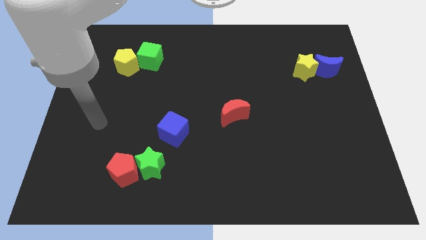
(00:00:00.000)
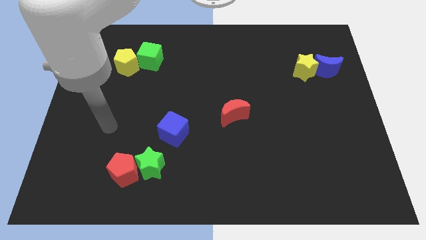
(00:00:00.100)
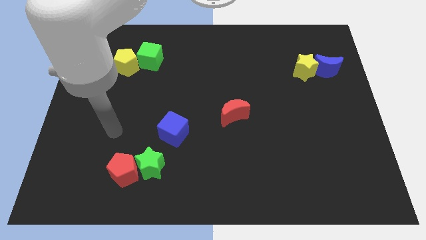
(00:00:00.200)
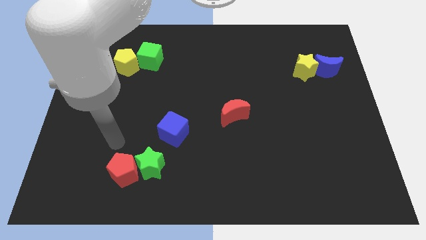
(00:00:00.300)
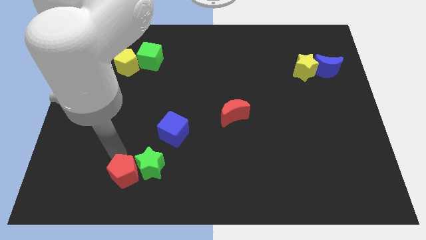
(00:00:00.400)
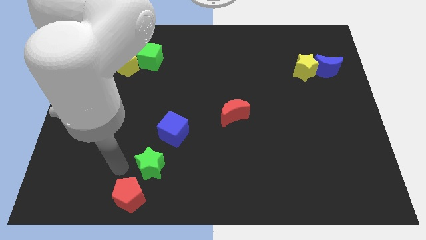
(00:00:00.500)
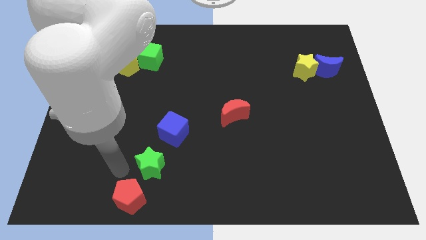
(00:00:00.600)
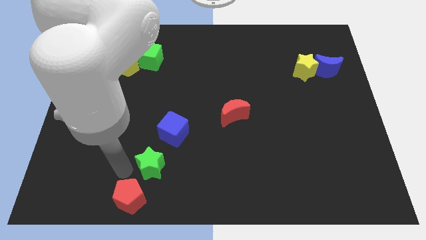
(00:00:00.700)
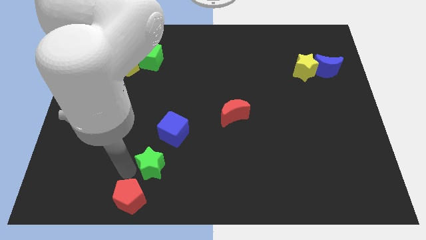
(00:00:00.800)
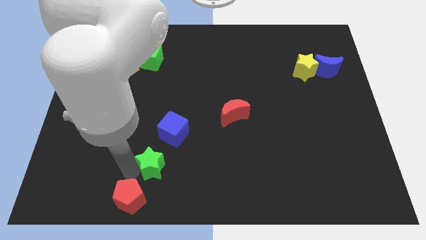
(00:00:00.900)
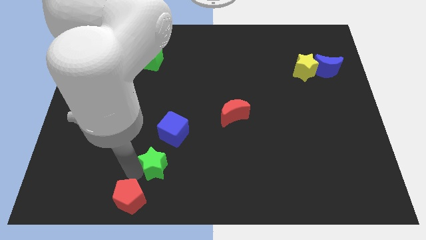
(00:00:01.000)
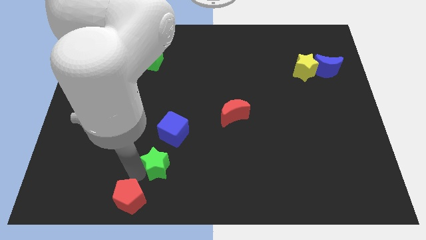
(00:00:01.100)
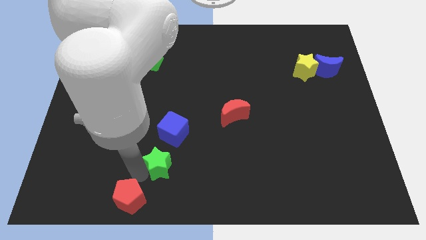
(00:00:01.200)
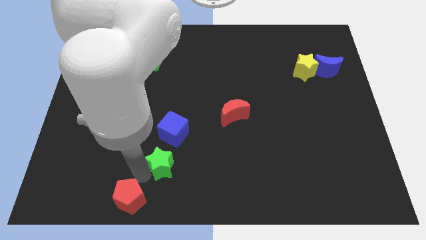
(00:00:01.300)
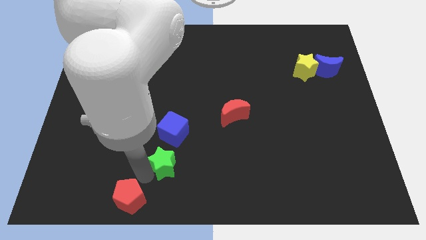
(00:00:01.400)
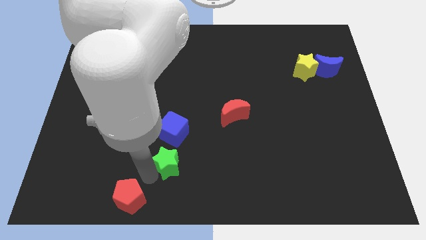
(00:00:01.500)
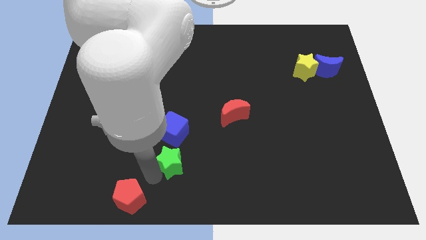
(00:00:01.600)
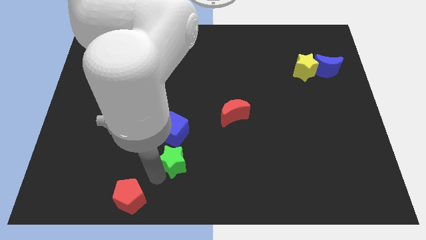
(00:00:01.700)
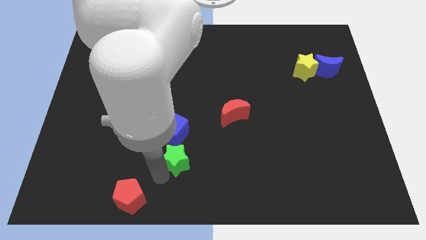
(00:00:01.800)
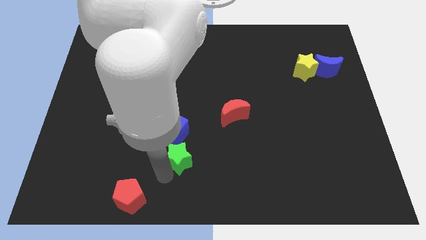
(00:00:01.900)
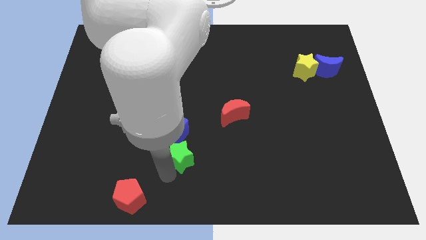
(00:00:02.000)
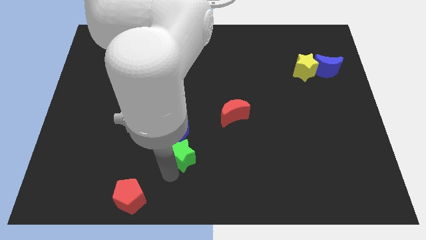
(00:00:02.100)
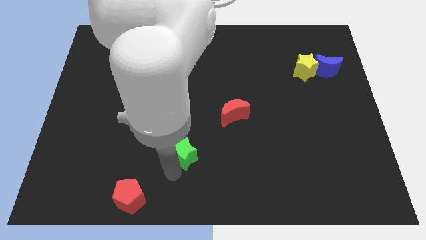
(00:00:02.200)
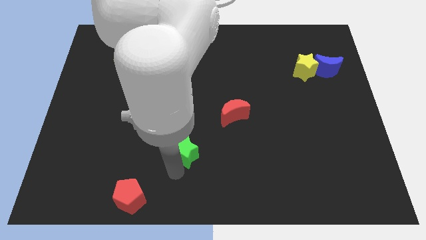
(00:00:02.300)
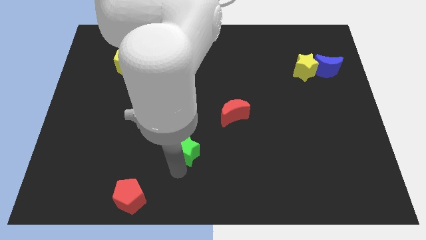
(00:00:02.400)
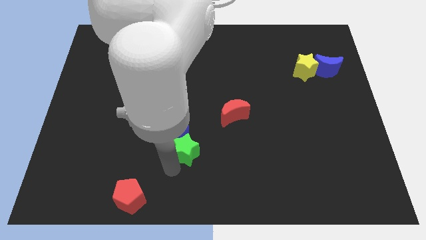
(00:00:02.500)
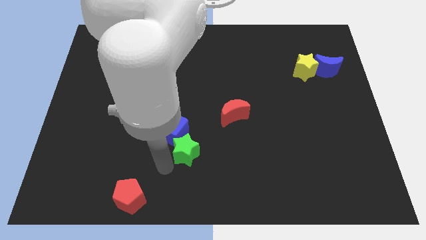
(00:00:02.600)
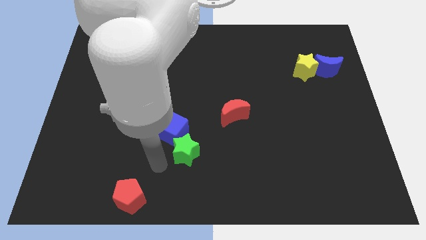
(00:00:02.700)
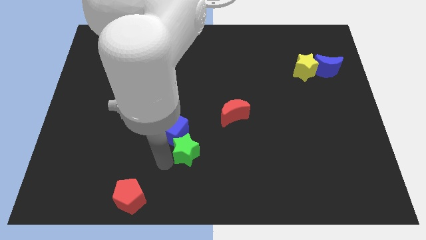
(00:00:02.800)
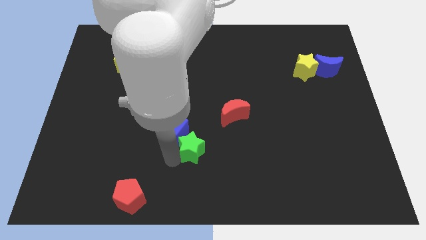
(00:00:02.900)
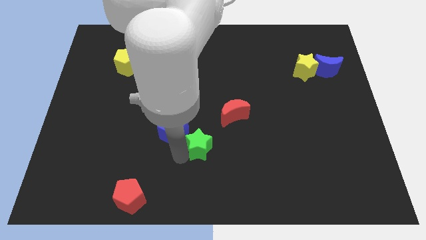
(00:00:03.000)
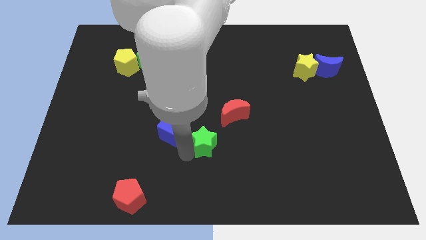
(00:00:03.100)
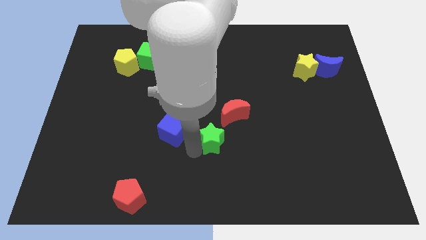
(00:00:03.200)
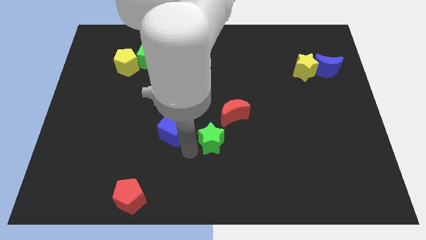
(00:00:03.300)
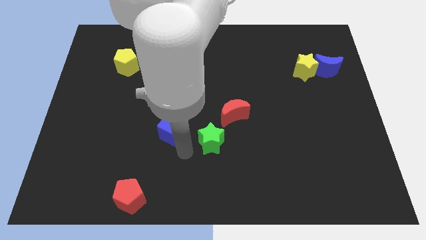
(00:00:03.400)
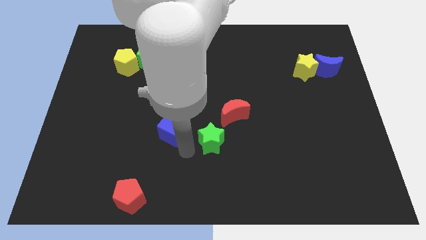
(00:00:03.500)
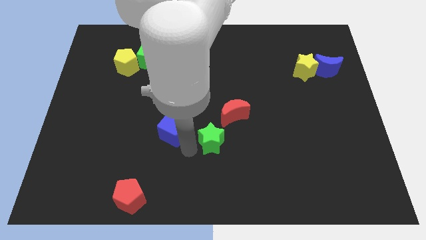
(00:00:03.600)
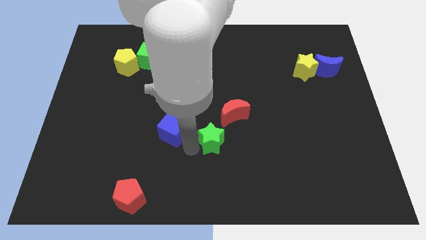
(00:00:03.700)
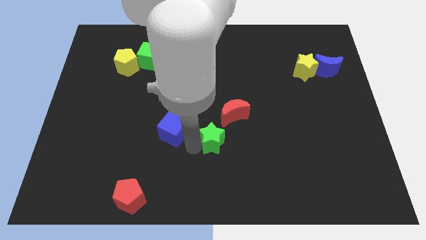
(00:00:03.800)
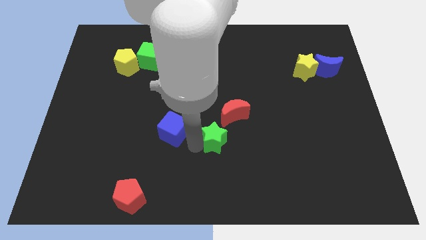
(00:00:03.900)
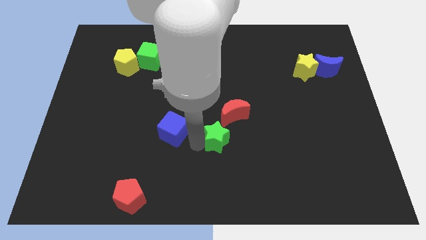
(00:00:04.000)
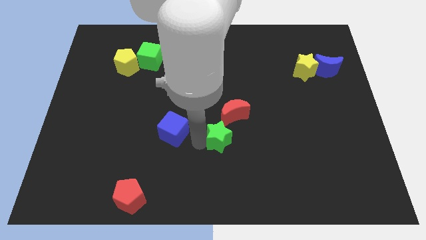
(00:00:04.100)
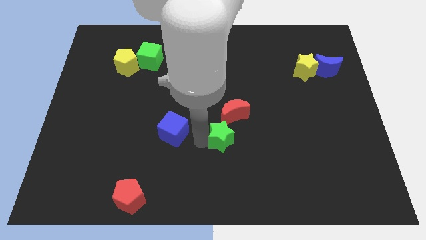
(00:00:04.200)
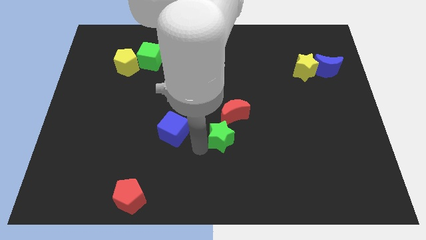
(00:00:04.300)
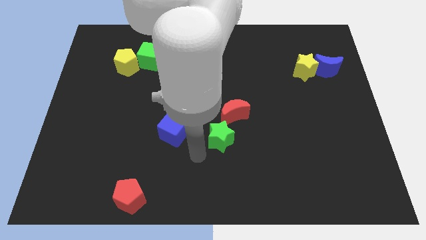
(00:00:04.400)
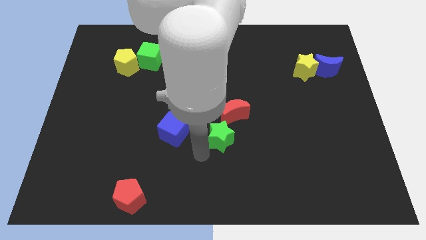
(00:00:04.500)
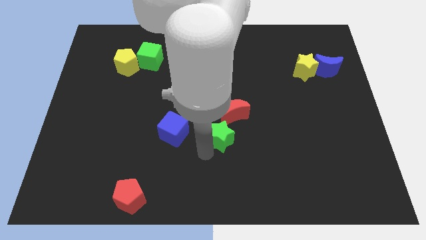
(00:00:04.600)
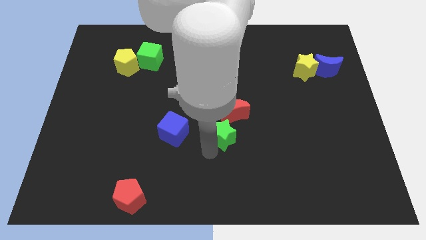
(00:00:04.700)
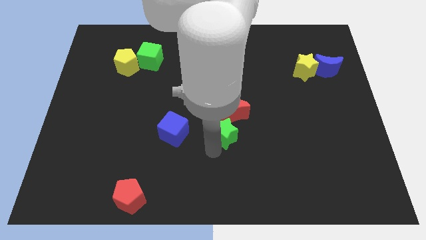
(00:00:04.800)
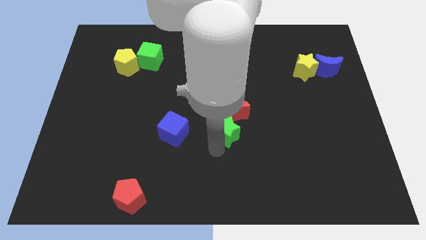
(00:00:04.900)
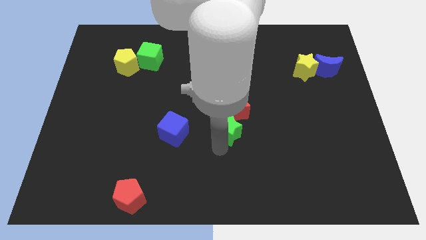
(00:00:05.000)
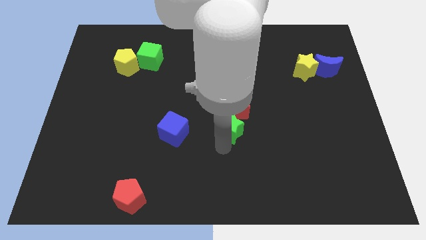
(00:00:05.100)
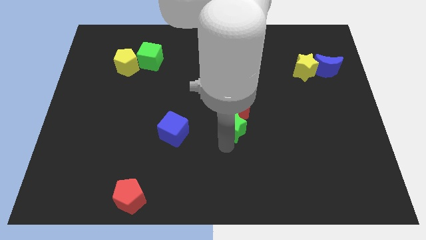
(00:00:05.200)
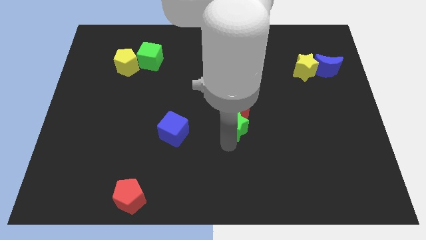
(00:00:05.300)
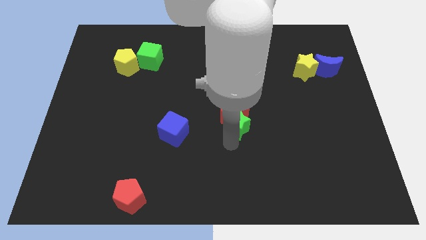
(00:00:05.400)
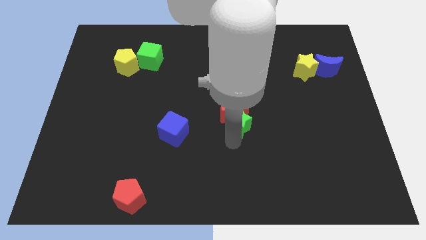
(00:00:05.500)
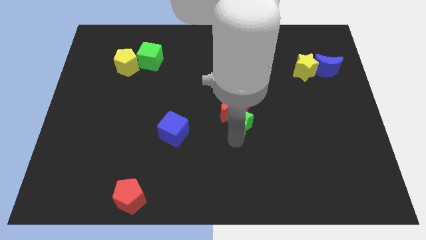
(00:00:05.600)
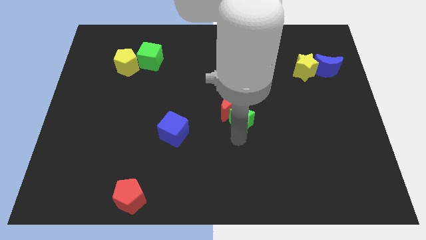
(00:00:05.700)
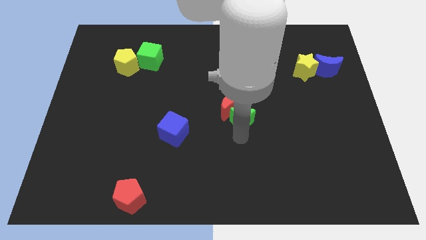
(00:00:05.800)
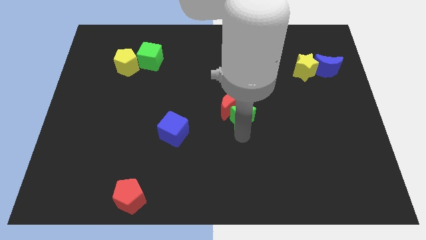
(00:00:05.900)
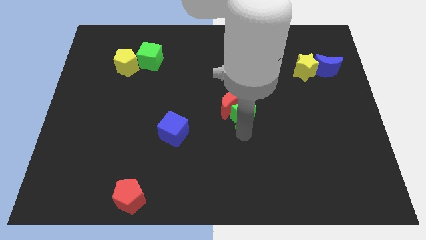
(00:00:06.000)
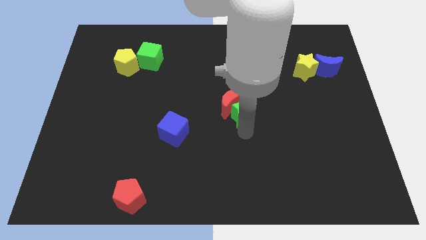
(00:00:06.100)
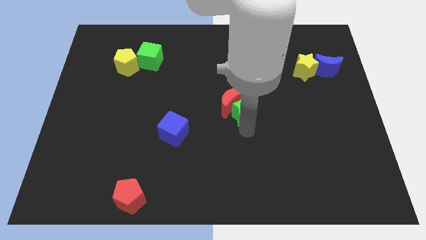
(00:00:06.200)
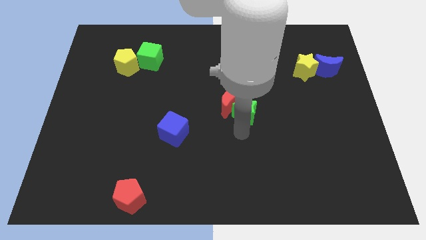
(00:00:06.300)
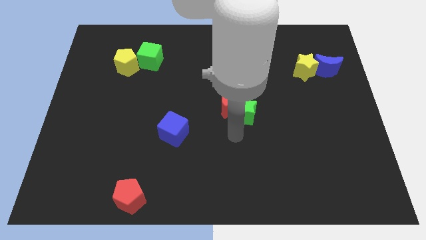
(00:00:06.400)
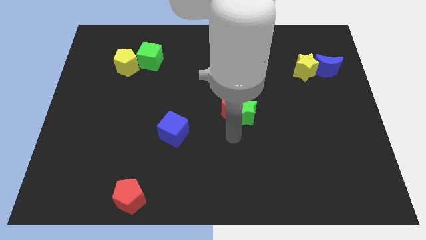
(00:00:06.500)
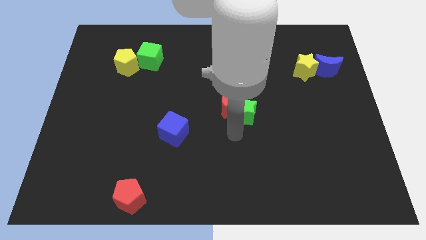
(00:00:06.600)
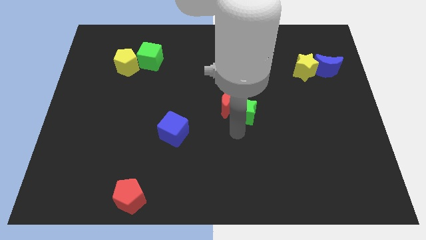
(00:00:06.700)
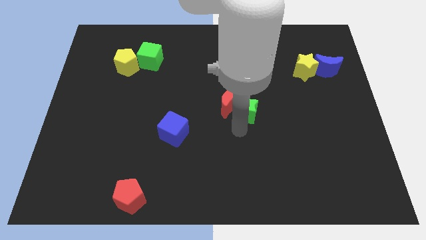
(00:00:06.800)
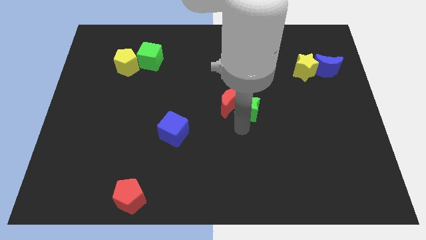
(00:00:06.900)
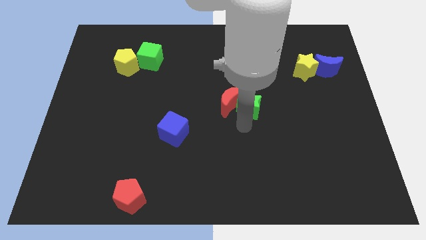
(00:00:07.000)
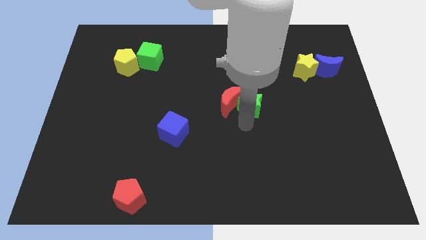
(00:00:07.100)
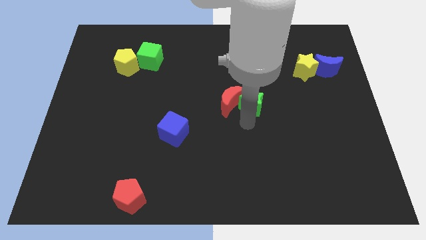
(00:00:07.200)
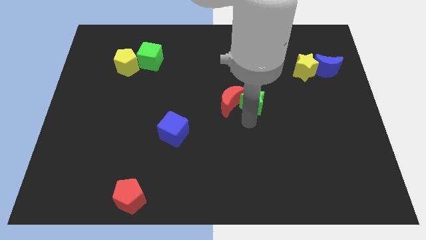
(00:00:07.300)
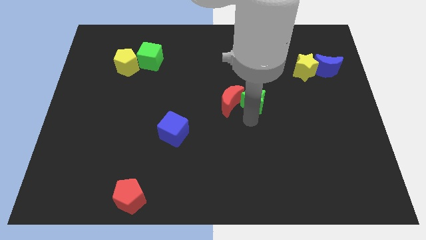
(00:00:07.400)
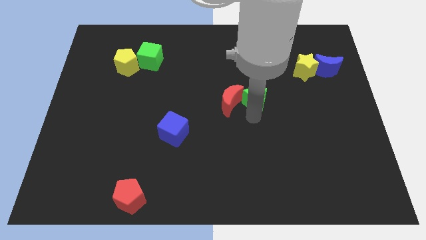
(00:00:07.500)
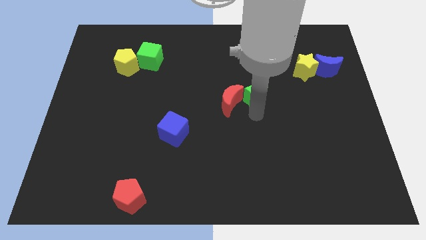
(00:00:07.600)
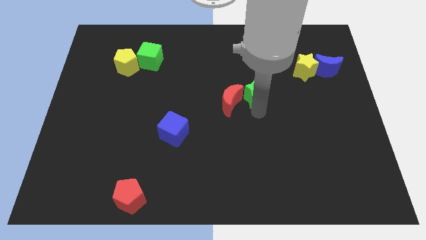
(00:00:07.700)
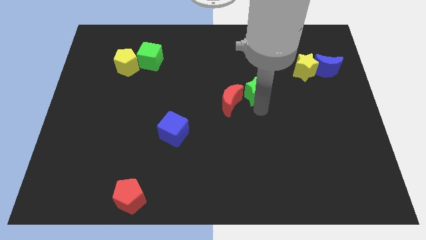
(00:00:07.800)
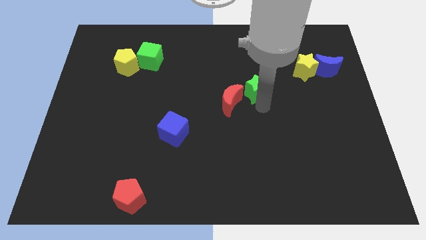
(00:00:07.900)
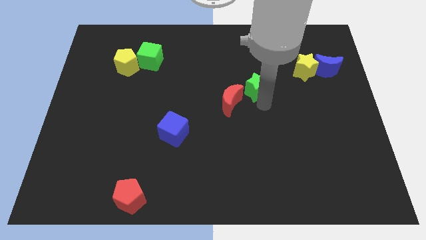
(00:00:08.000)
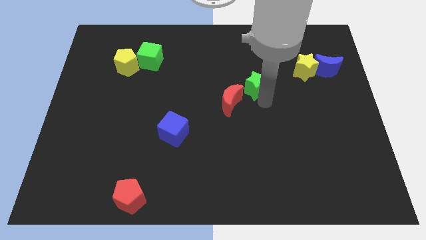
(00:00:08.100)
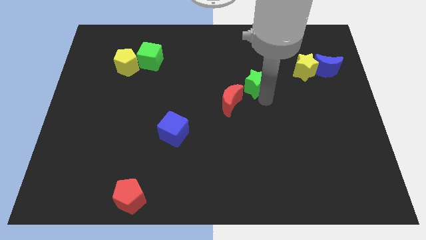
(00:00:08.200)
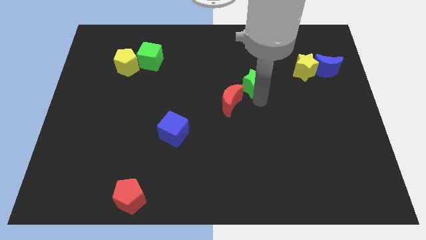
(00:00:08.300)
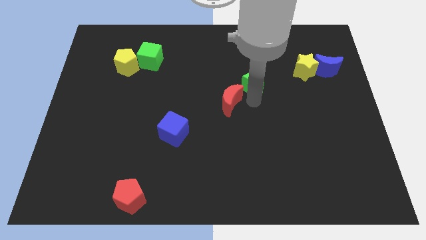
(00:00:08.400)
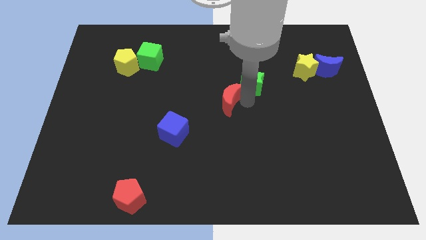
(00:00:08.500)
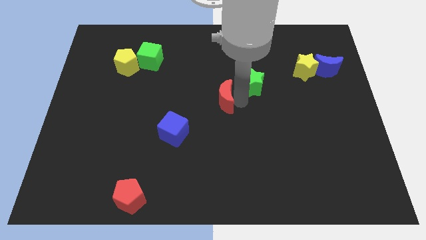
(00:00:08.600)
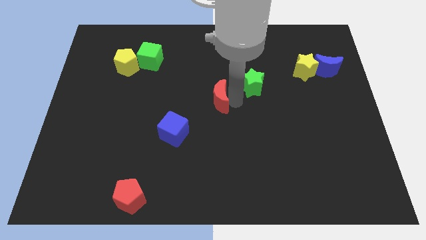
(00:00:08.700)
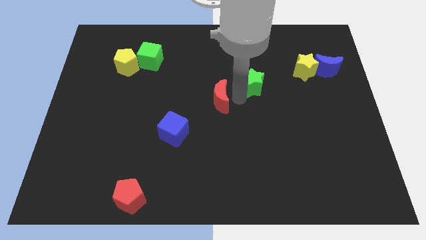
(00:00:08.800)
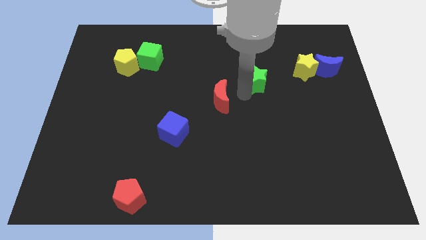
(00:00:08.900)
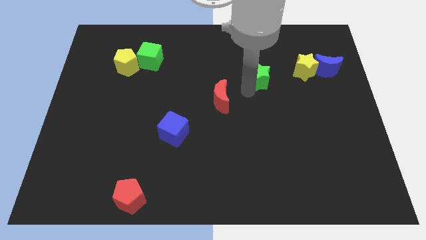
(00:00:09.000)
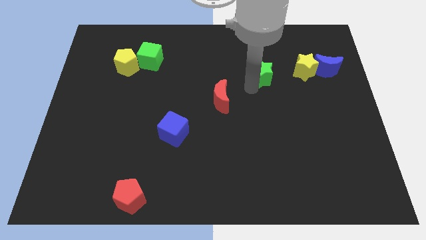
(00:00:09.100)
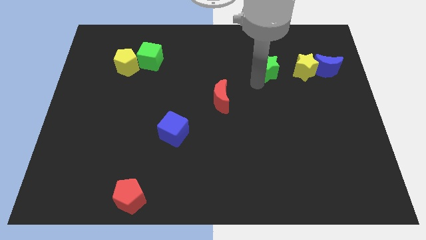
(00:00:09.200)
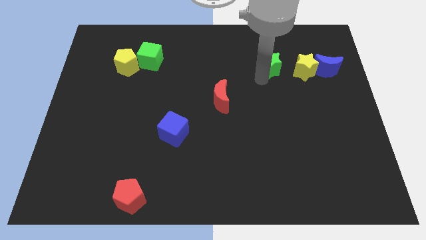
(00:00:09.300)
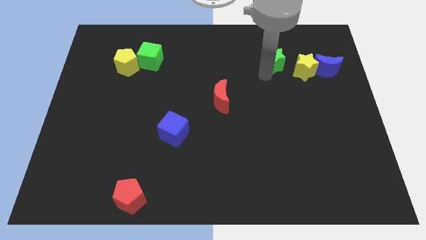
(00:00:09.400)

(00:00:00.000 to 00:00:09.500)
push the green star diagonally up and to the left of the yellow star
